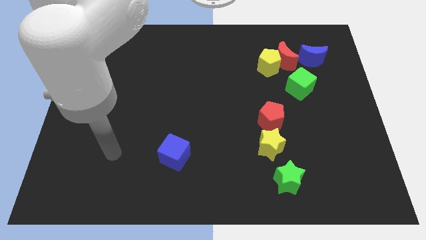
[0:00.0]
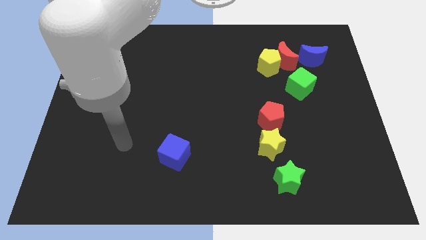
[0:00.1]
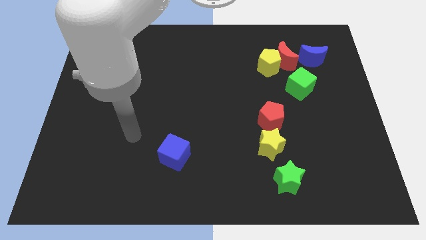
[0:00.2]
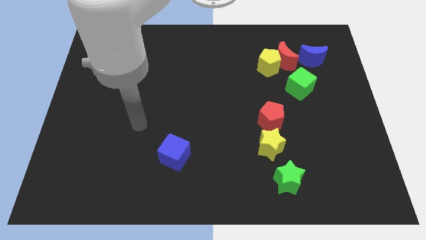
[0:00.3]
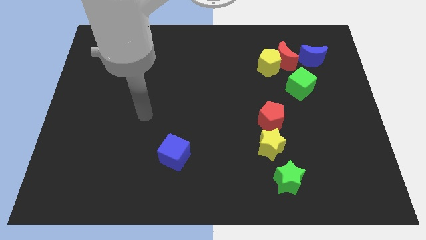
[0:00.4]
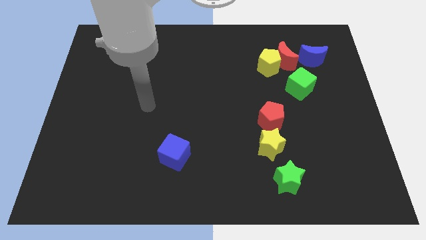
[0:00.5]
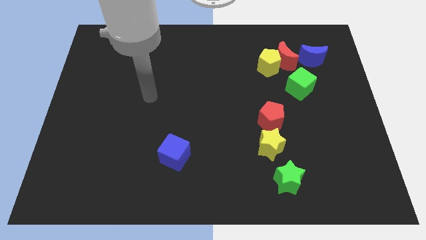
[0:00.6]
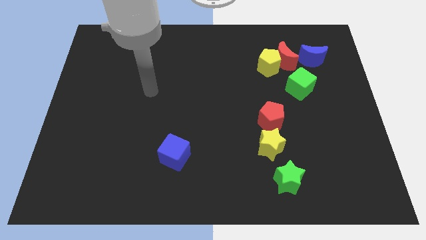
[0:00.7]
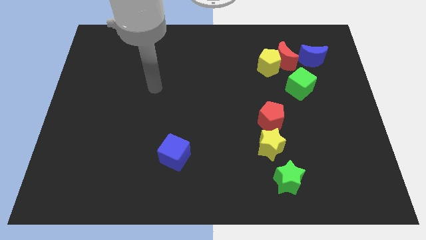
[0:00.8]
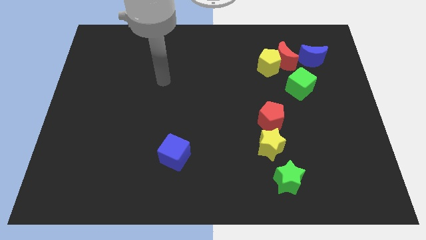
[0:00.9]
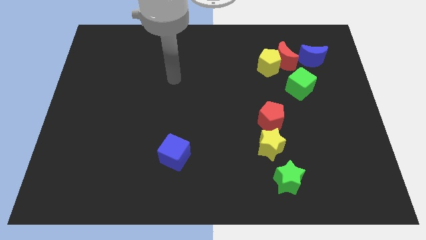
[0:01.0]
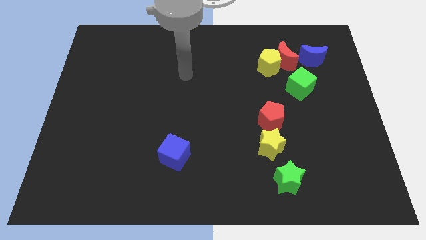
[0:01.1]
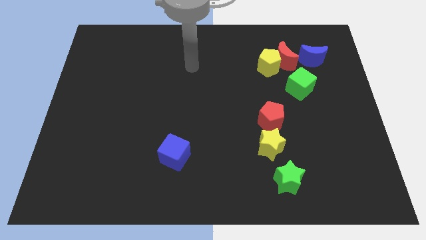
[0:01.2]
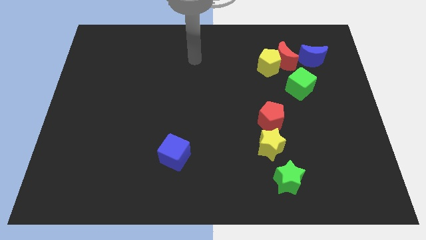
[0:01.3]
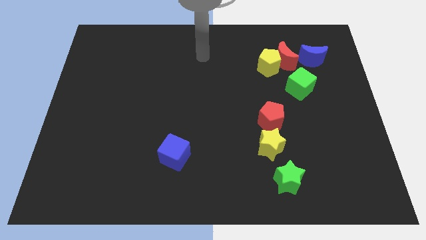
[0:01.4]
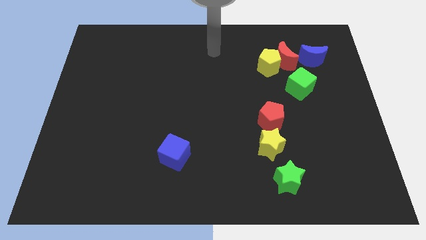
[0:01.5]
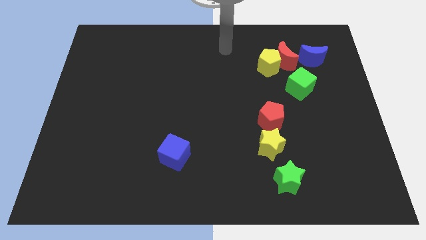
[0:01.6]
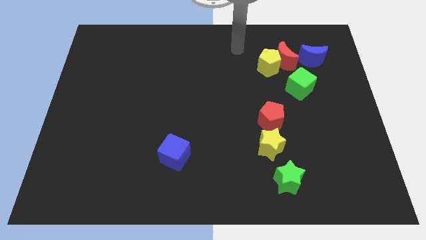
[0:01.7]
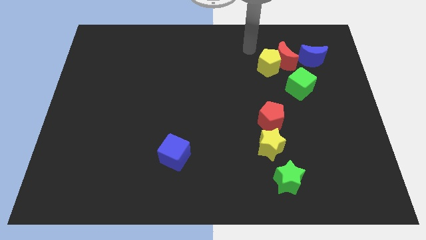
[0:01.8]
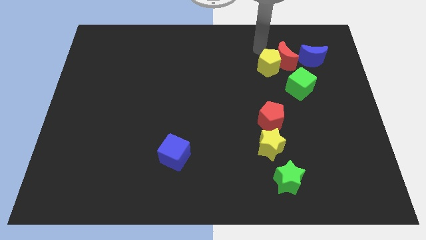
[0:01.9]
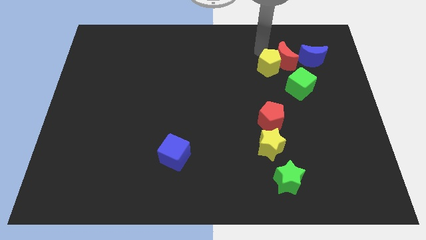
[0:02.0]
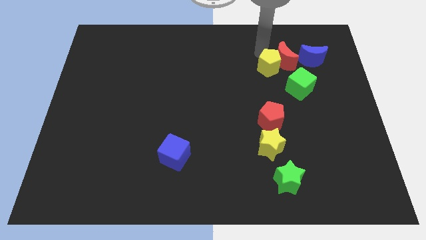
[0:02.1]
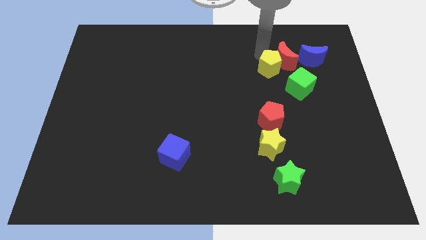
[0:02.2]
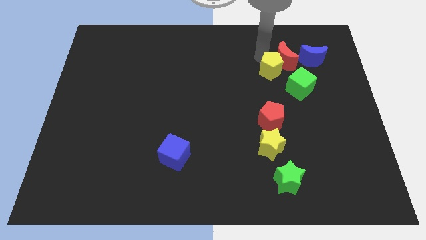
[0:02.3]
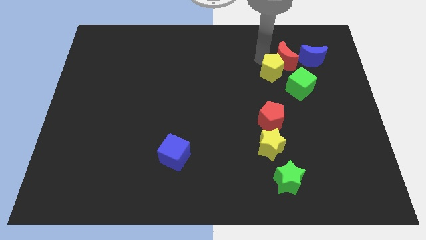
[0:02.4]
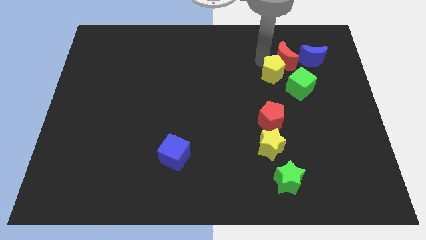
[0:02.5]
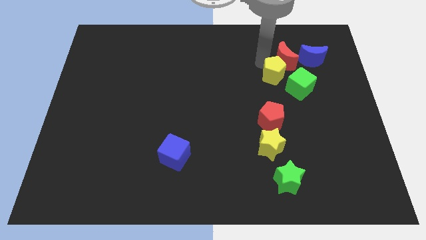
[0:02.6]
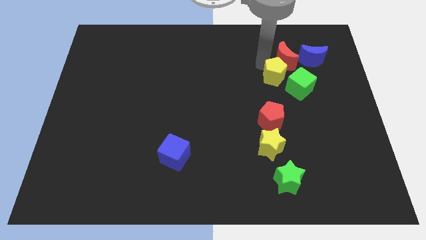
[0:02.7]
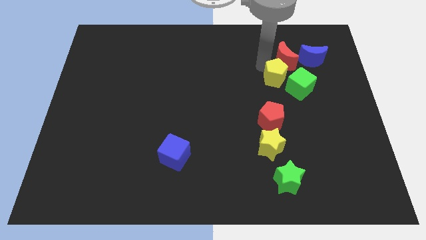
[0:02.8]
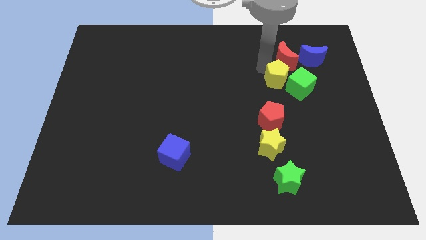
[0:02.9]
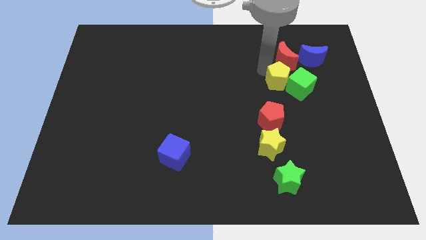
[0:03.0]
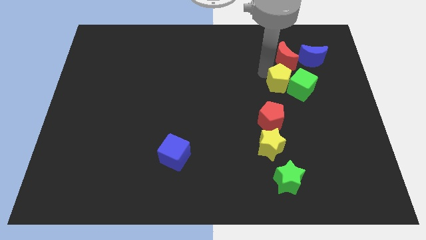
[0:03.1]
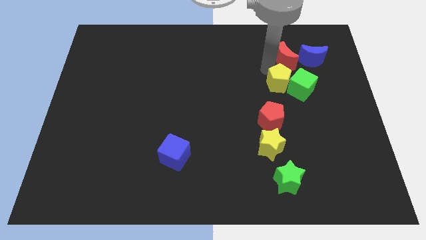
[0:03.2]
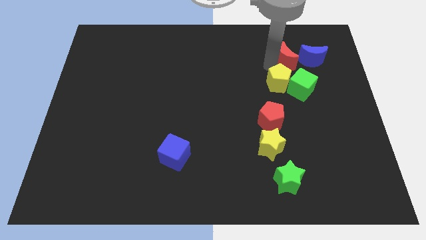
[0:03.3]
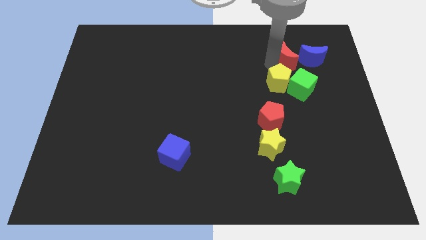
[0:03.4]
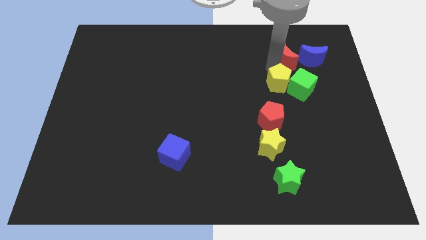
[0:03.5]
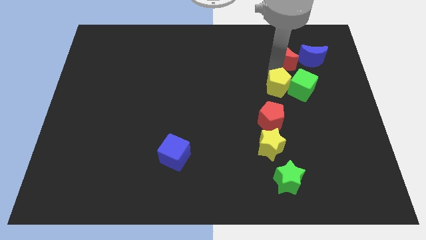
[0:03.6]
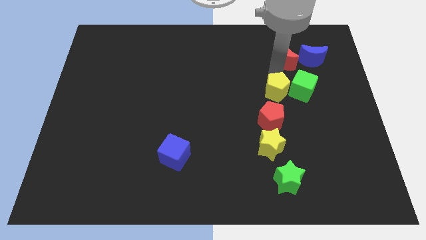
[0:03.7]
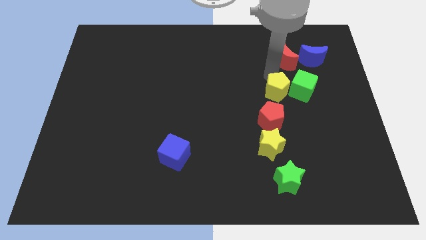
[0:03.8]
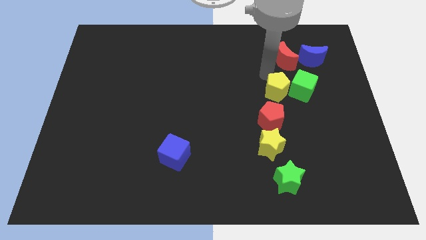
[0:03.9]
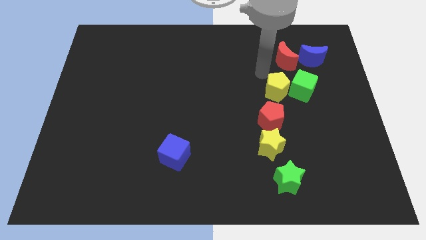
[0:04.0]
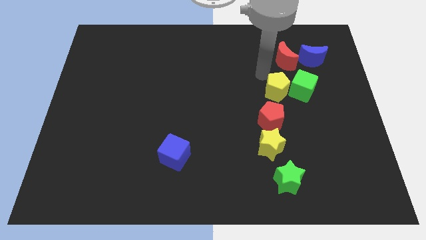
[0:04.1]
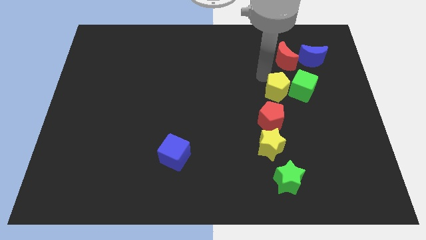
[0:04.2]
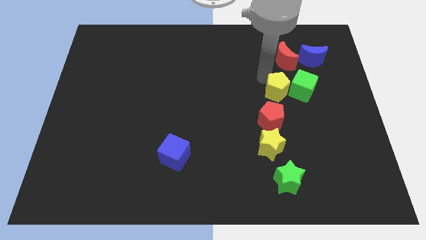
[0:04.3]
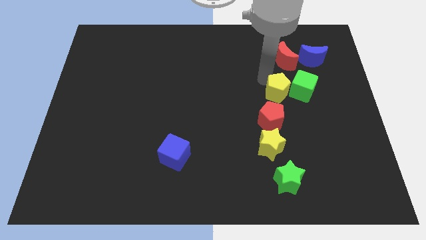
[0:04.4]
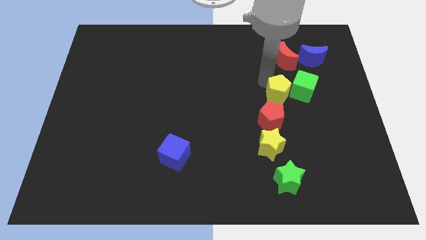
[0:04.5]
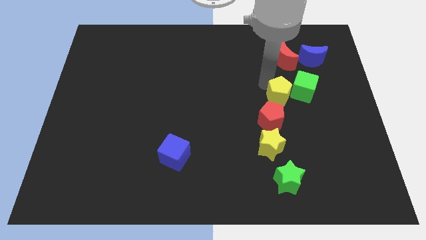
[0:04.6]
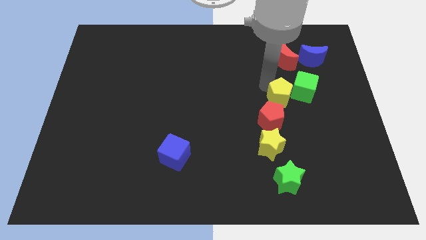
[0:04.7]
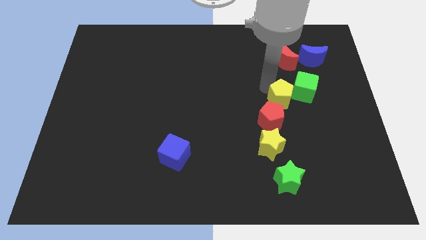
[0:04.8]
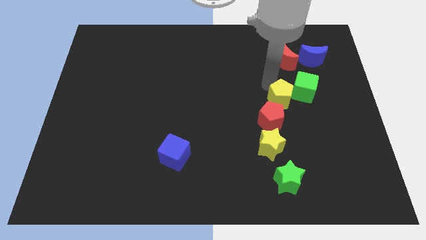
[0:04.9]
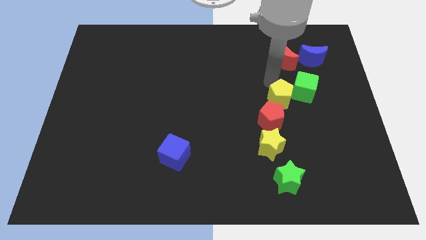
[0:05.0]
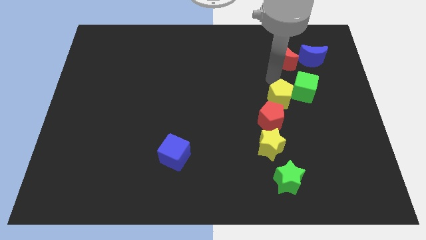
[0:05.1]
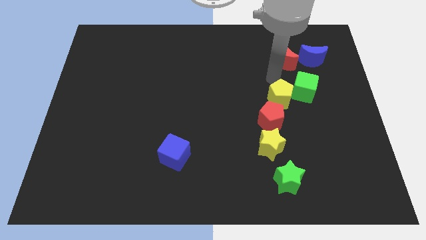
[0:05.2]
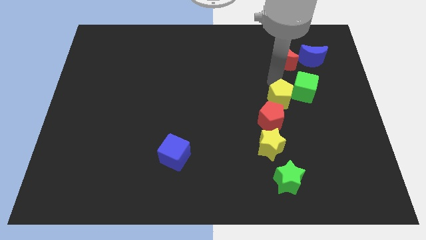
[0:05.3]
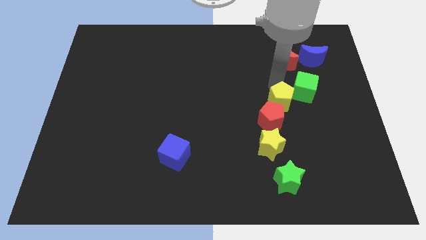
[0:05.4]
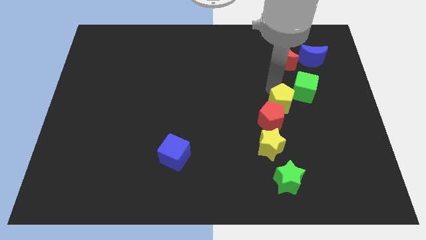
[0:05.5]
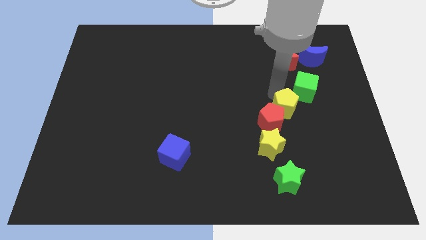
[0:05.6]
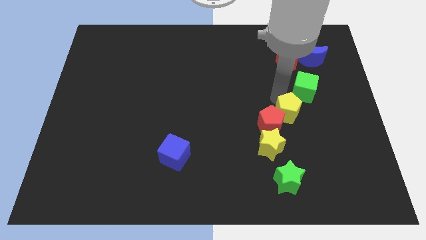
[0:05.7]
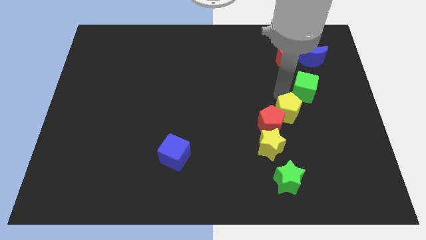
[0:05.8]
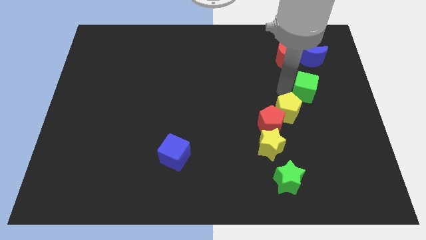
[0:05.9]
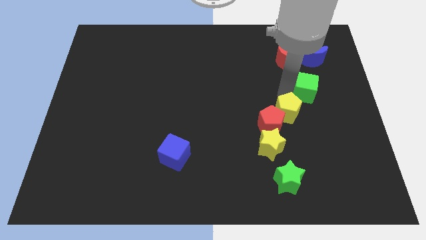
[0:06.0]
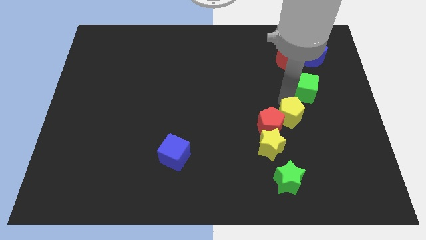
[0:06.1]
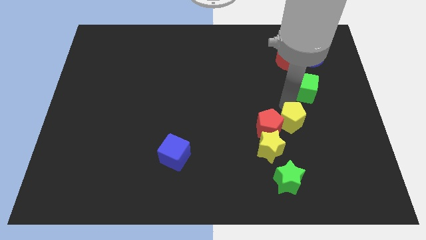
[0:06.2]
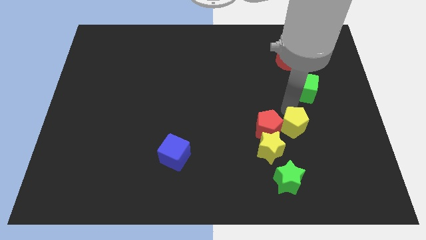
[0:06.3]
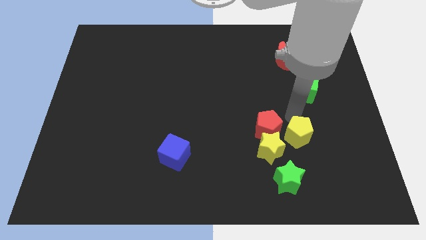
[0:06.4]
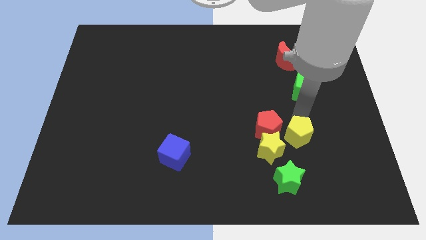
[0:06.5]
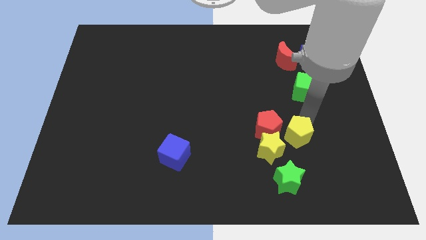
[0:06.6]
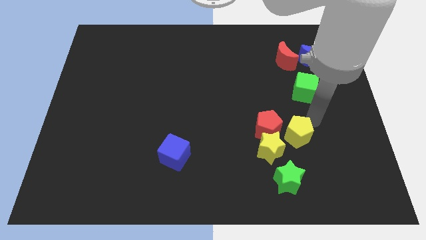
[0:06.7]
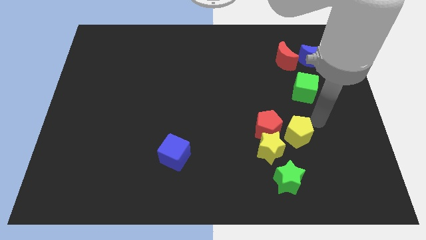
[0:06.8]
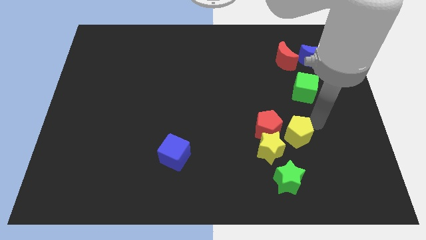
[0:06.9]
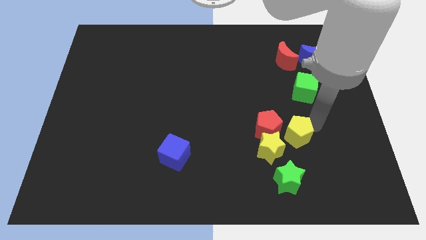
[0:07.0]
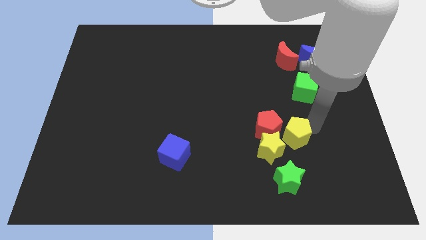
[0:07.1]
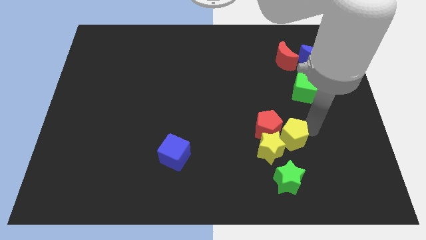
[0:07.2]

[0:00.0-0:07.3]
slide the yellow pentagon next to the yellow star
